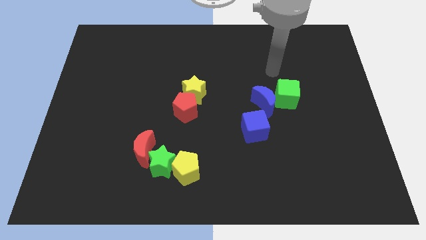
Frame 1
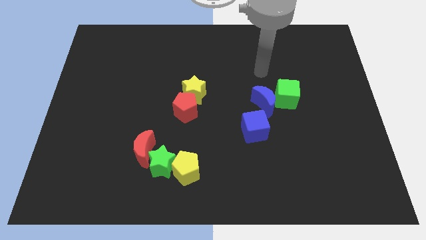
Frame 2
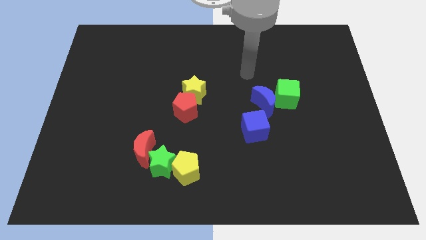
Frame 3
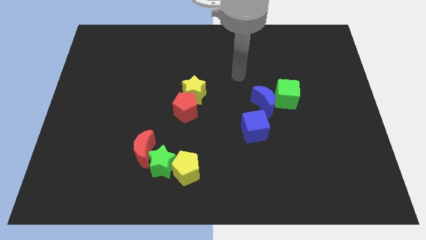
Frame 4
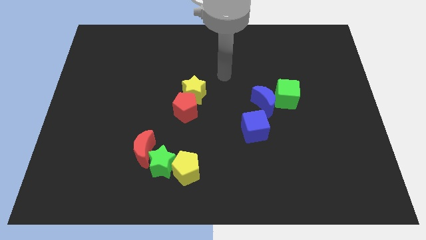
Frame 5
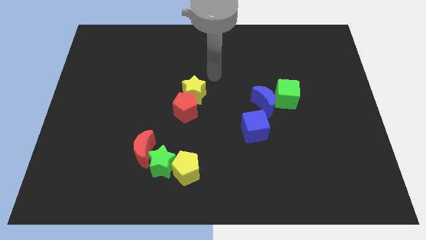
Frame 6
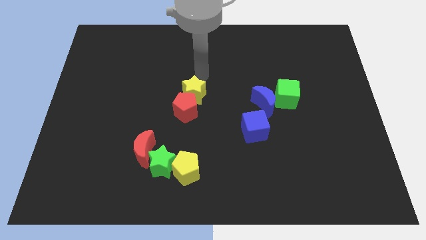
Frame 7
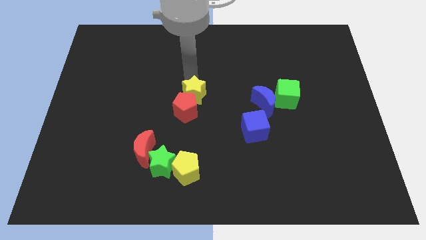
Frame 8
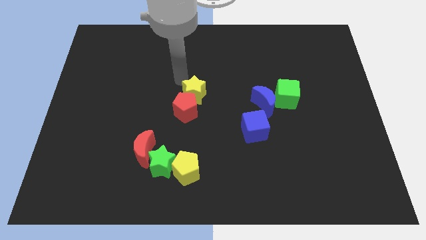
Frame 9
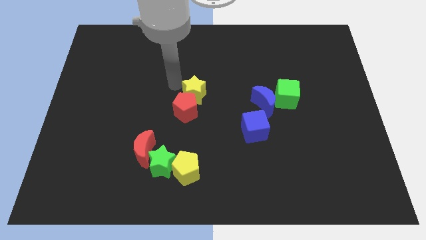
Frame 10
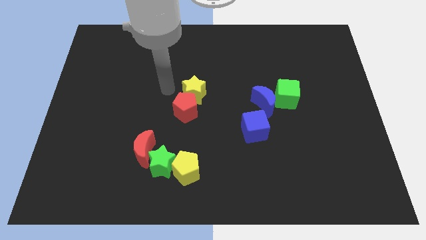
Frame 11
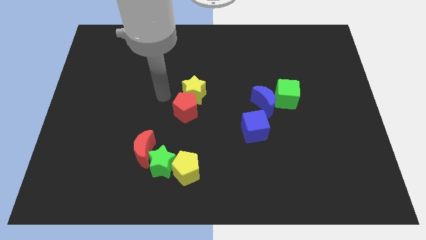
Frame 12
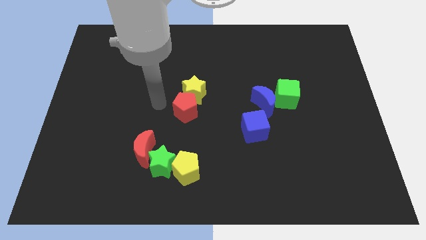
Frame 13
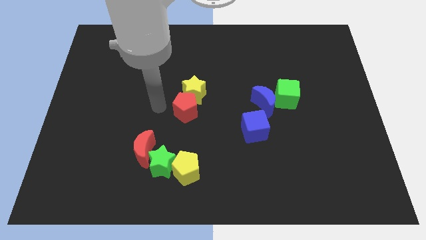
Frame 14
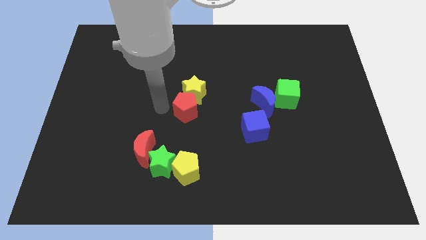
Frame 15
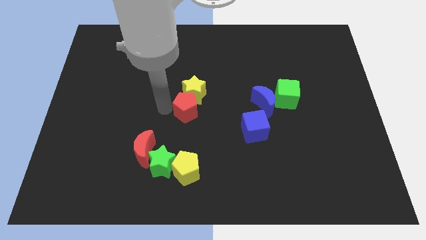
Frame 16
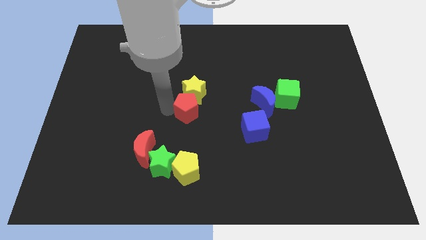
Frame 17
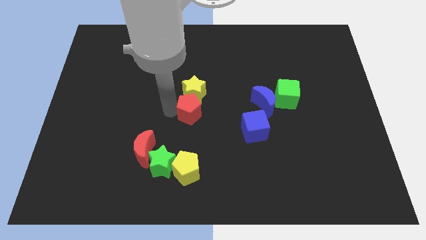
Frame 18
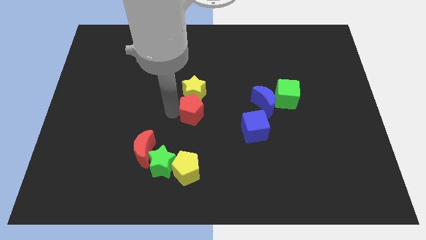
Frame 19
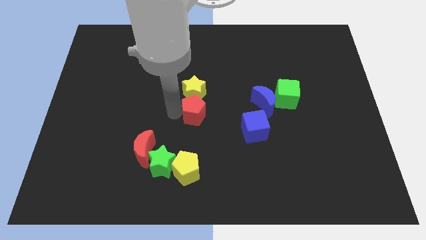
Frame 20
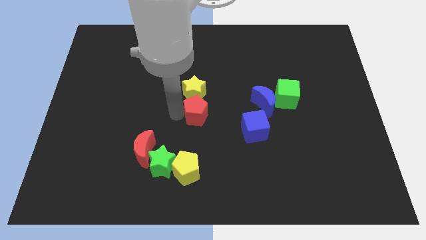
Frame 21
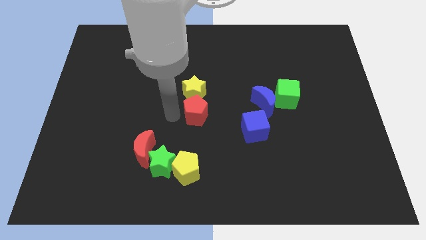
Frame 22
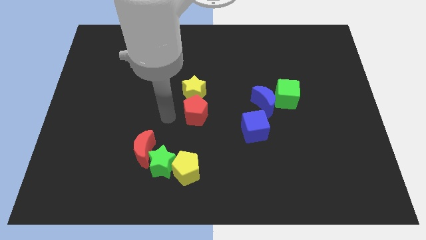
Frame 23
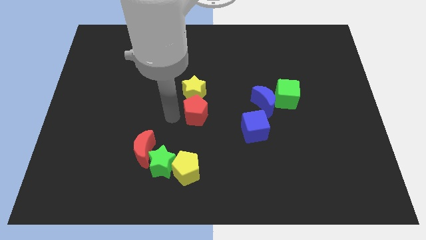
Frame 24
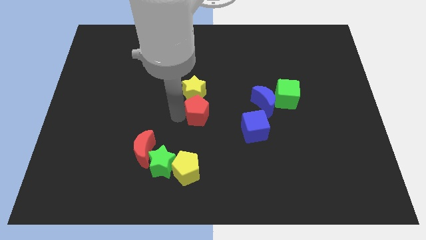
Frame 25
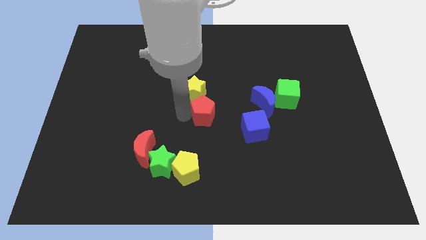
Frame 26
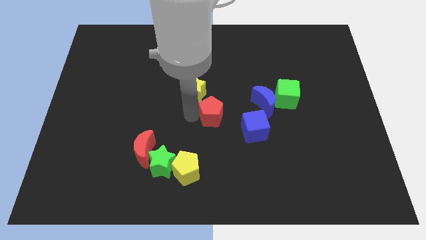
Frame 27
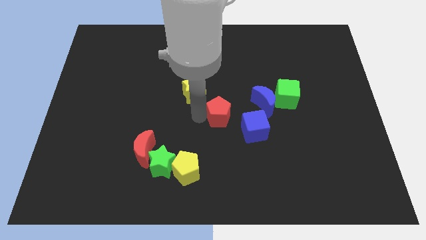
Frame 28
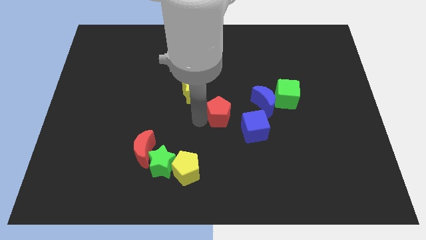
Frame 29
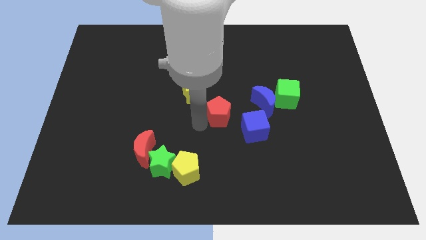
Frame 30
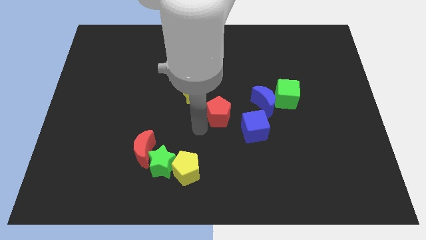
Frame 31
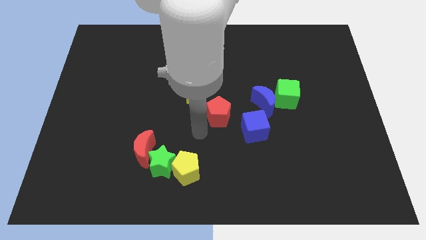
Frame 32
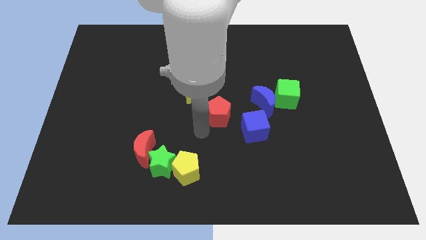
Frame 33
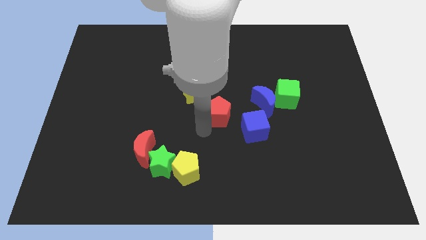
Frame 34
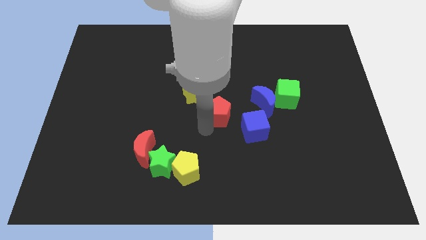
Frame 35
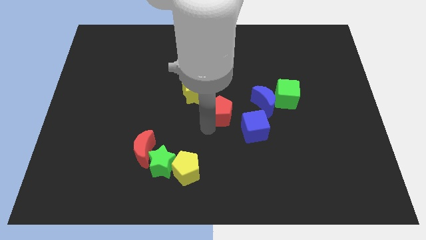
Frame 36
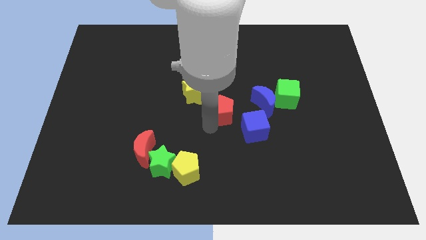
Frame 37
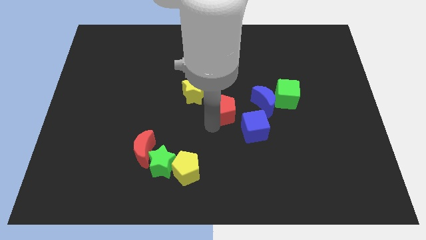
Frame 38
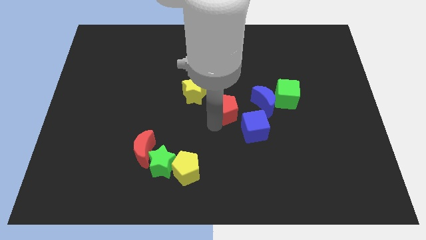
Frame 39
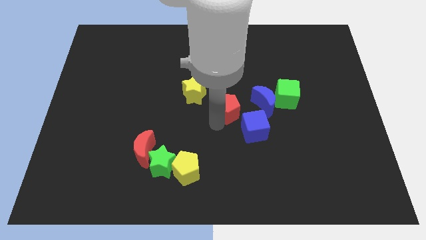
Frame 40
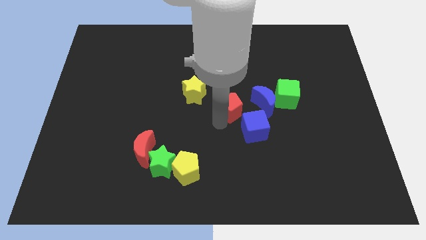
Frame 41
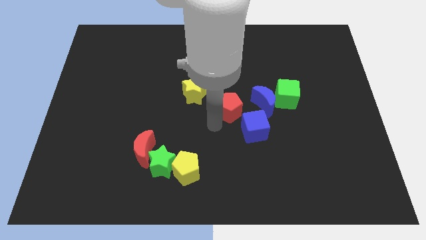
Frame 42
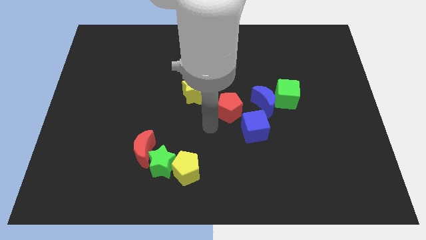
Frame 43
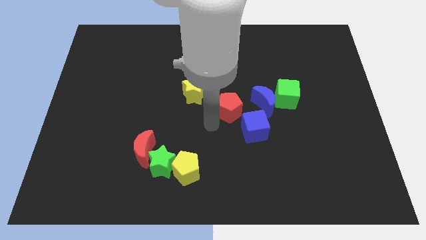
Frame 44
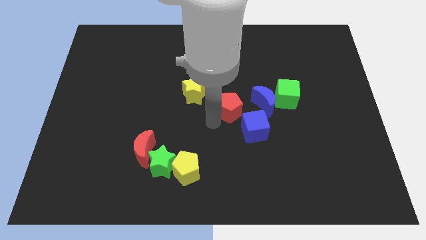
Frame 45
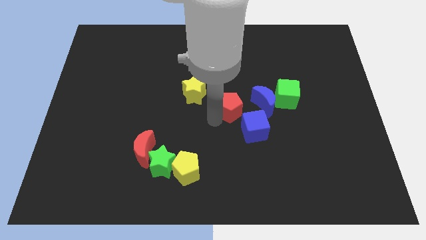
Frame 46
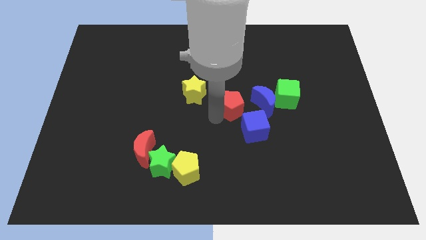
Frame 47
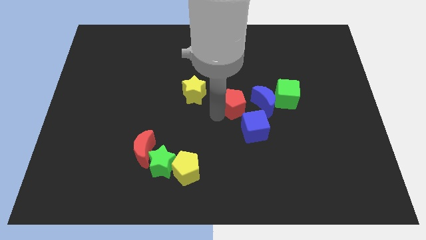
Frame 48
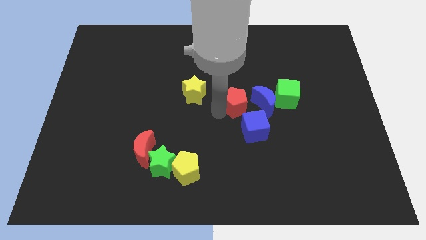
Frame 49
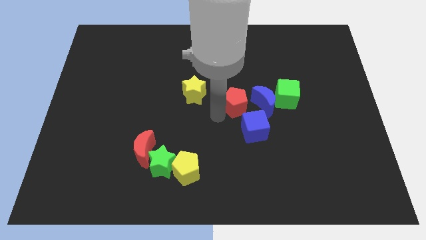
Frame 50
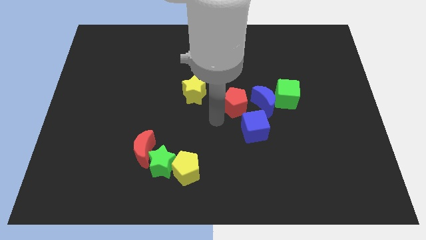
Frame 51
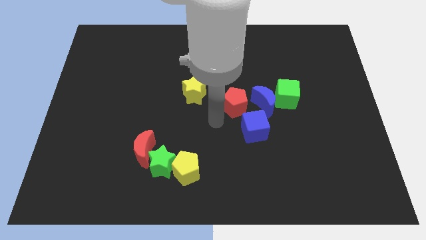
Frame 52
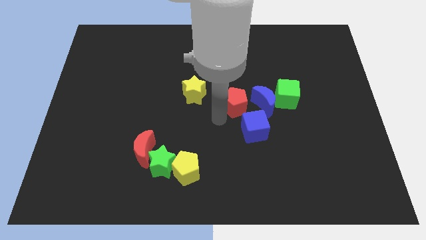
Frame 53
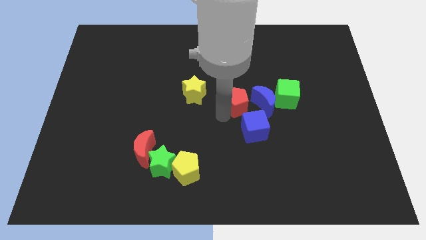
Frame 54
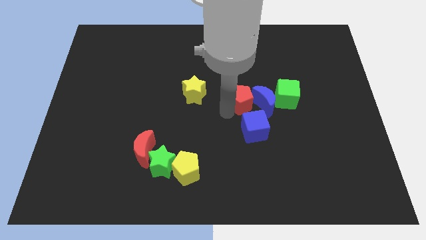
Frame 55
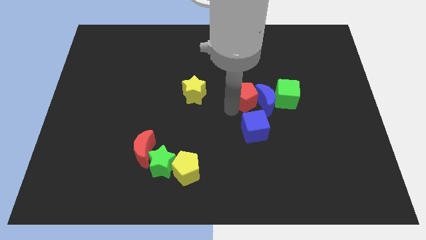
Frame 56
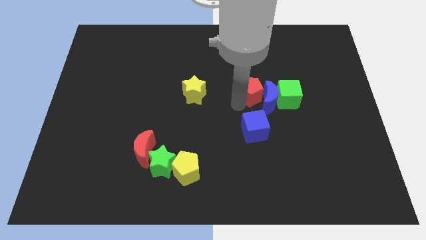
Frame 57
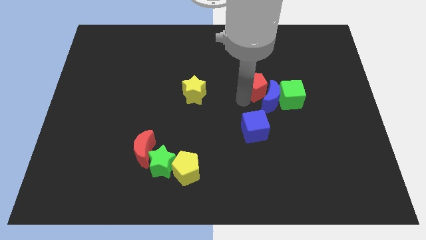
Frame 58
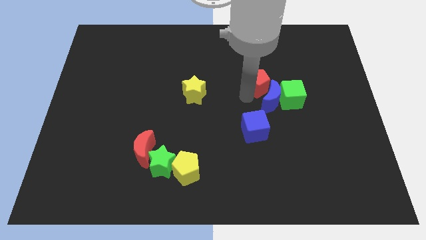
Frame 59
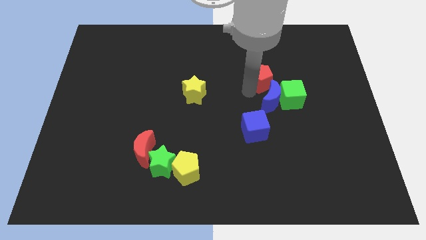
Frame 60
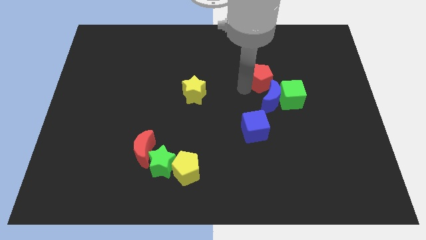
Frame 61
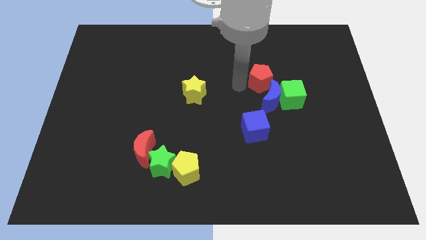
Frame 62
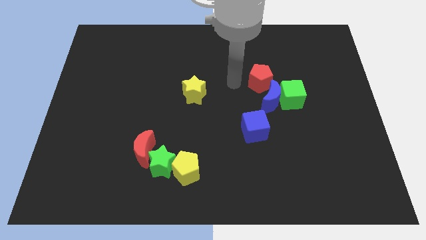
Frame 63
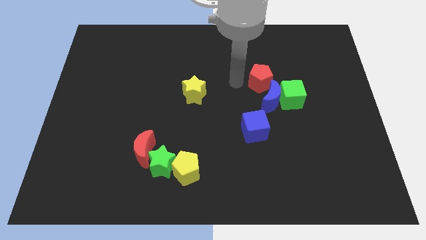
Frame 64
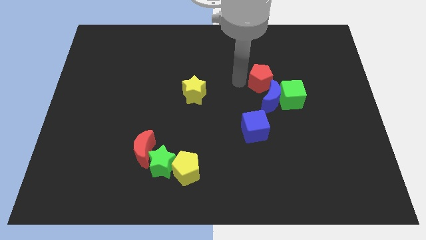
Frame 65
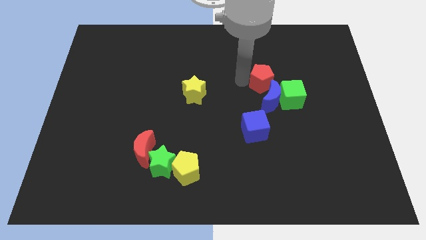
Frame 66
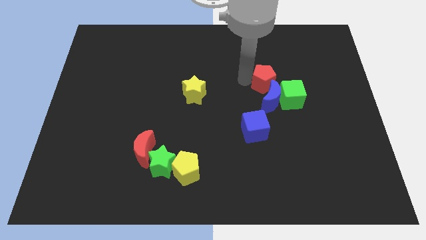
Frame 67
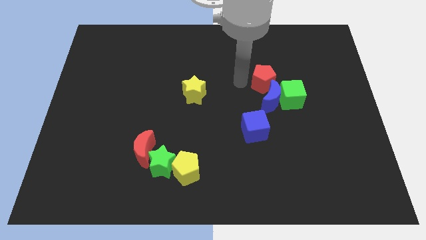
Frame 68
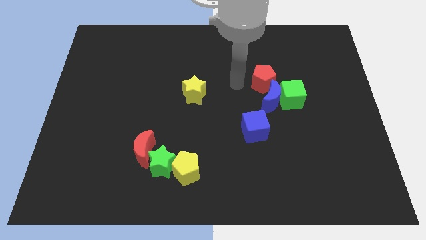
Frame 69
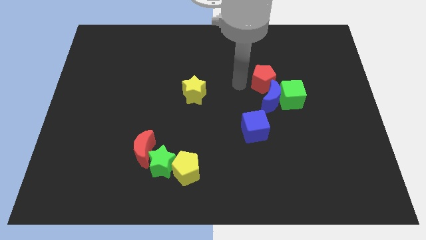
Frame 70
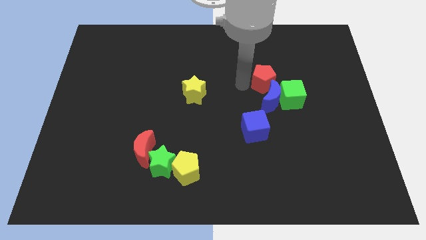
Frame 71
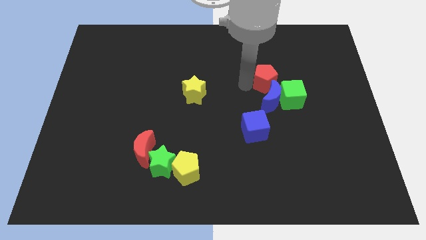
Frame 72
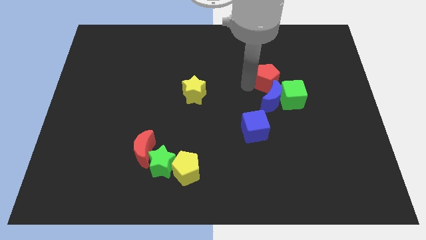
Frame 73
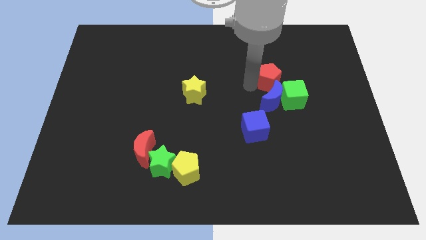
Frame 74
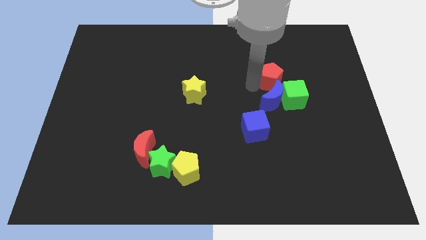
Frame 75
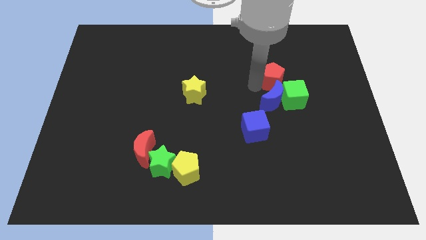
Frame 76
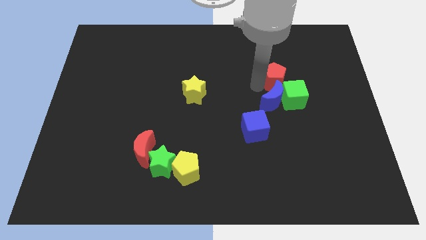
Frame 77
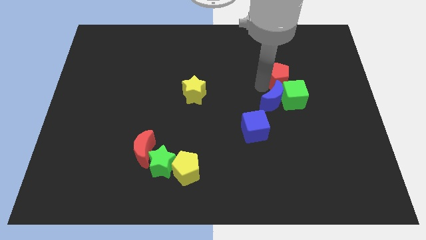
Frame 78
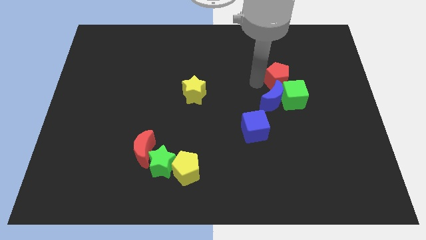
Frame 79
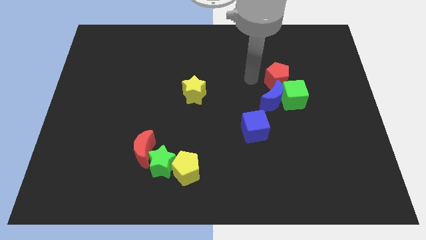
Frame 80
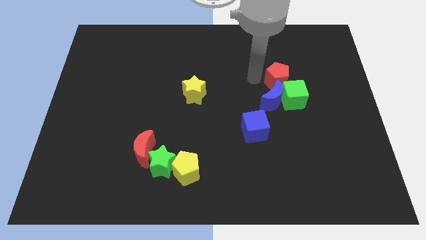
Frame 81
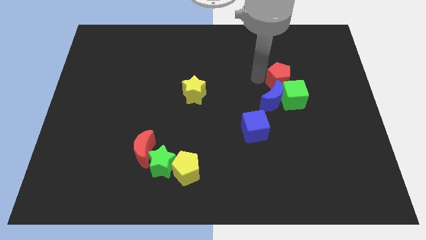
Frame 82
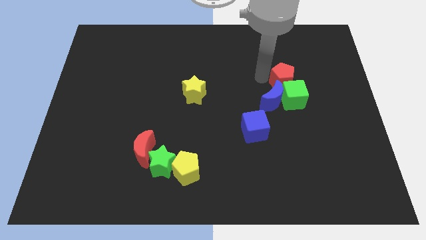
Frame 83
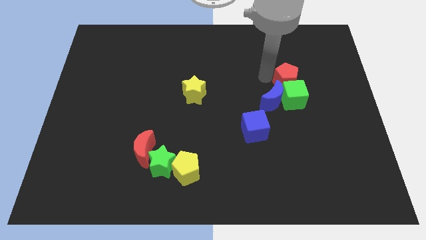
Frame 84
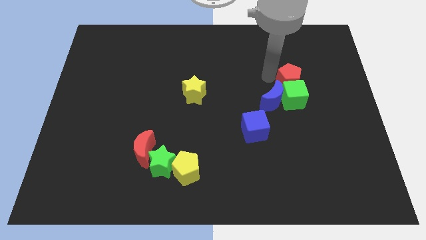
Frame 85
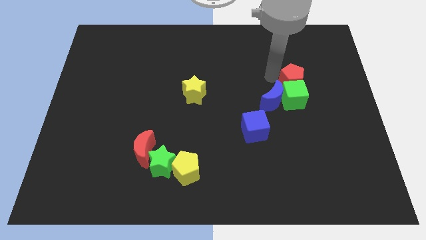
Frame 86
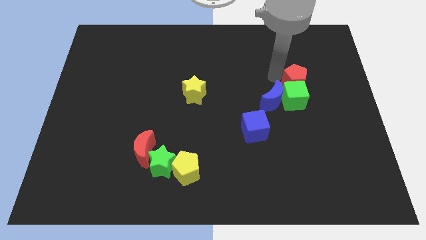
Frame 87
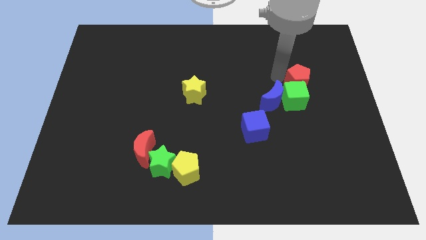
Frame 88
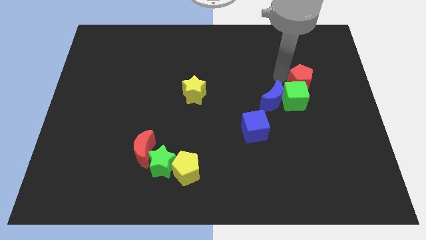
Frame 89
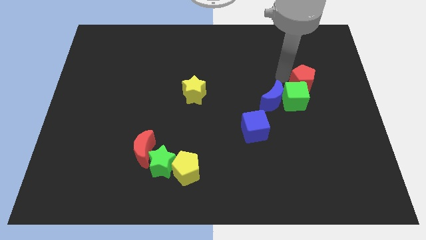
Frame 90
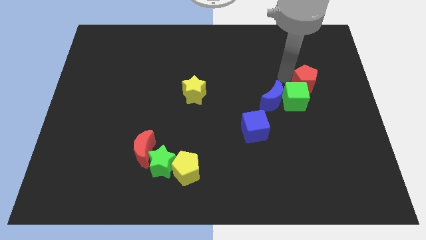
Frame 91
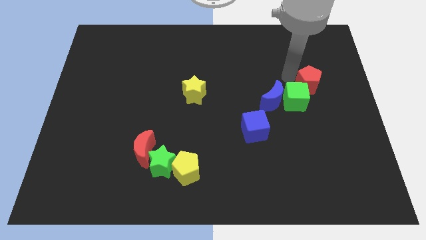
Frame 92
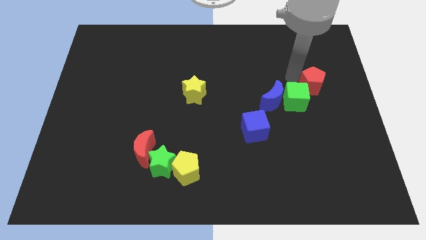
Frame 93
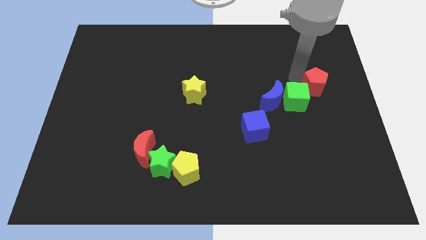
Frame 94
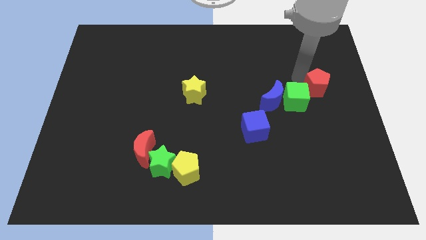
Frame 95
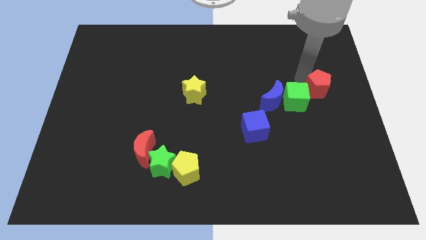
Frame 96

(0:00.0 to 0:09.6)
put the red pentagon to the right side
